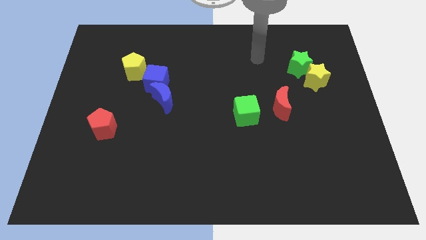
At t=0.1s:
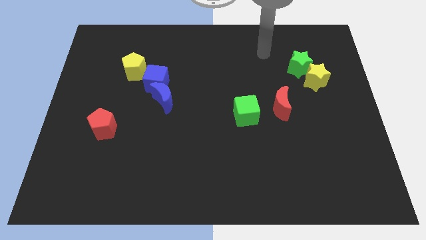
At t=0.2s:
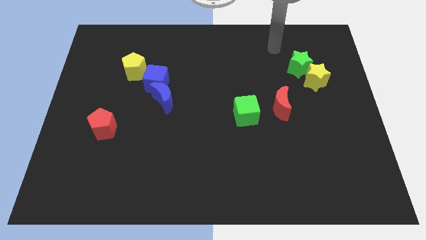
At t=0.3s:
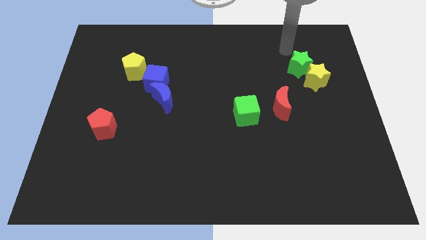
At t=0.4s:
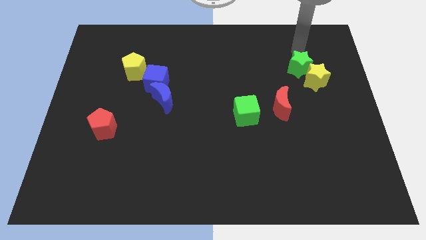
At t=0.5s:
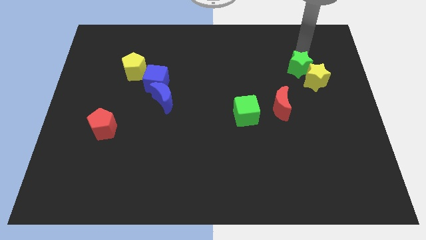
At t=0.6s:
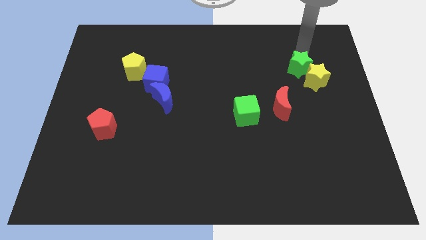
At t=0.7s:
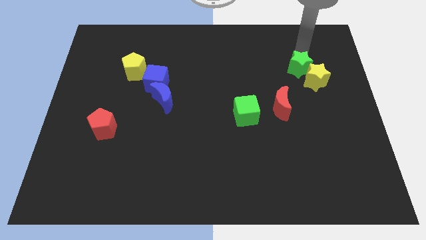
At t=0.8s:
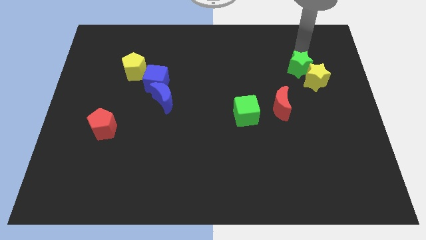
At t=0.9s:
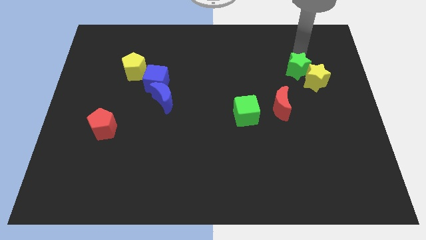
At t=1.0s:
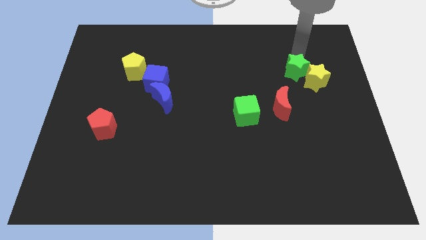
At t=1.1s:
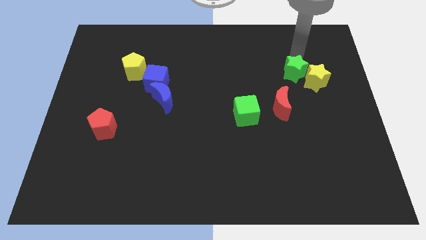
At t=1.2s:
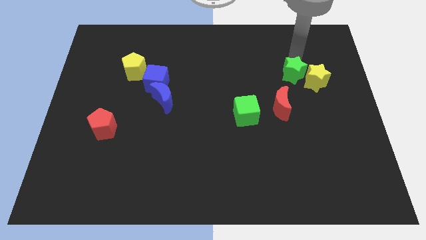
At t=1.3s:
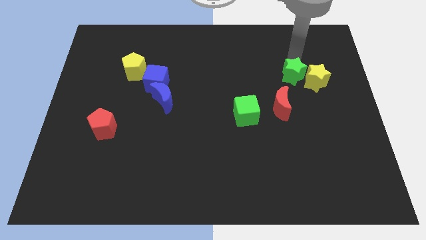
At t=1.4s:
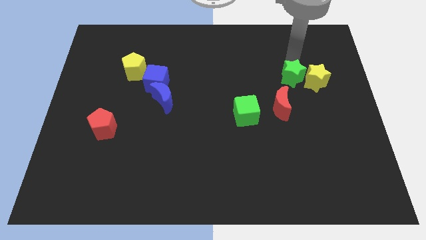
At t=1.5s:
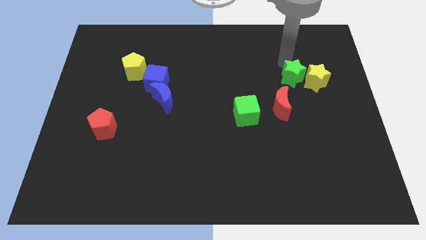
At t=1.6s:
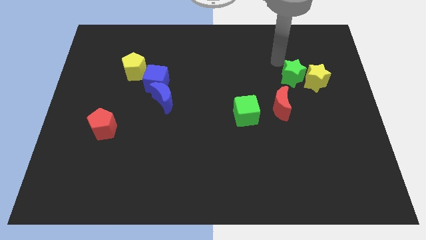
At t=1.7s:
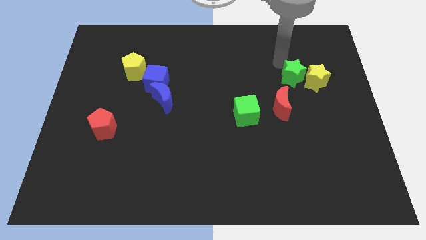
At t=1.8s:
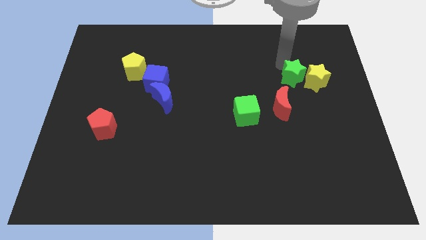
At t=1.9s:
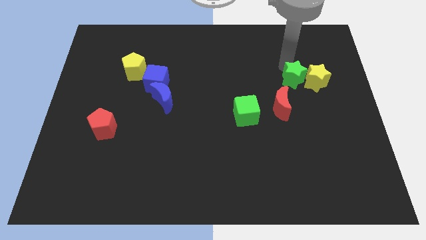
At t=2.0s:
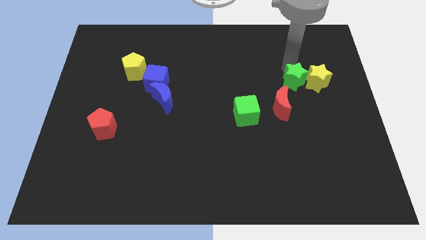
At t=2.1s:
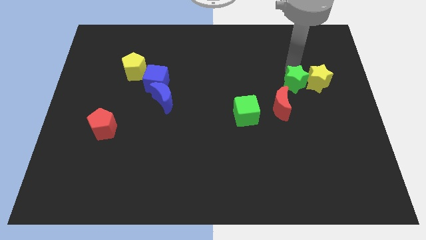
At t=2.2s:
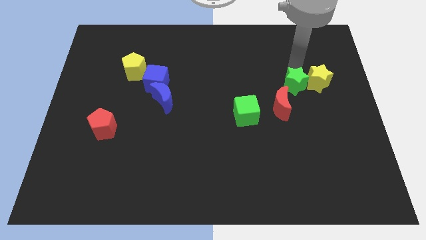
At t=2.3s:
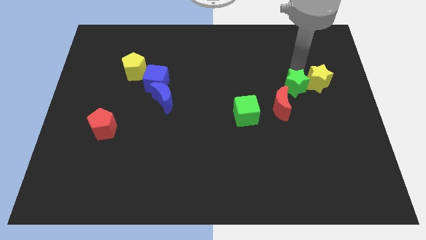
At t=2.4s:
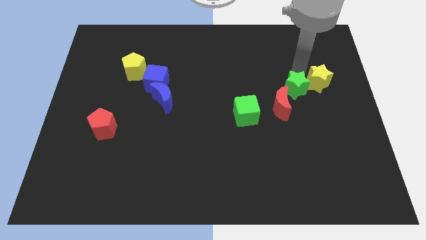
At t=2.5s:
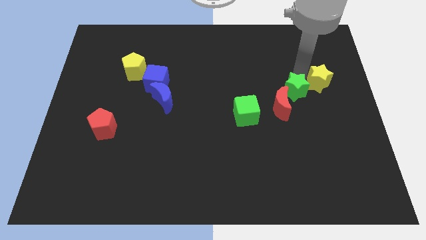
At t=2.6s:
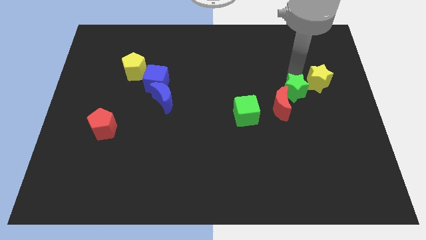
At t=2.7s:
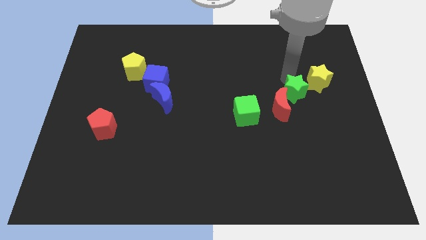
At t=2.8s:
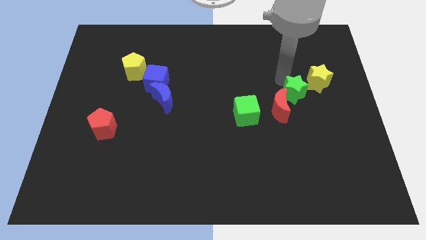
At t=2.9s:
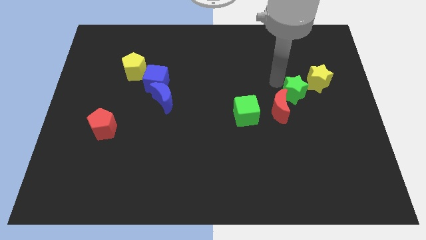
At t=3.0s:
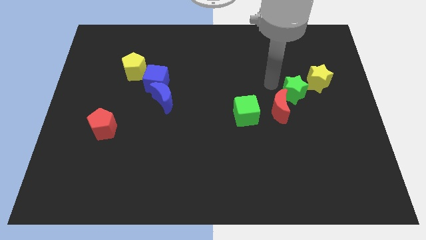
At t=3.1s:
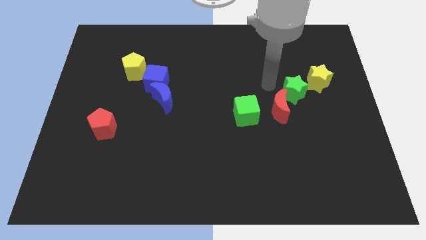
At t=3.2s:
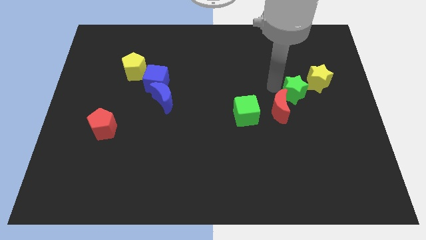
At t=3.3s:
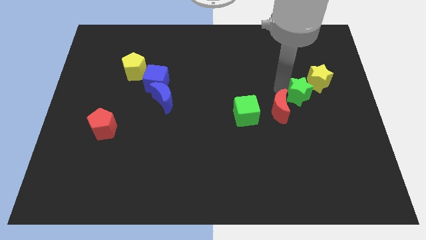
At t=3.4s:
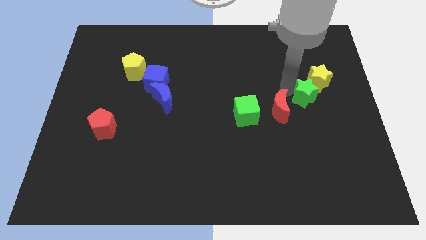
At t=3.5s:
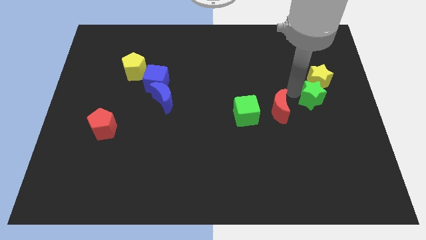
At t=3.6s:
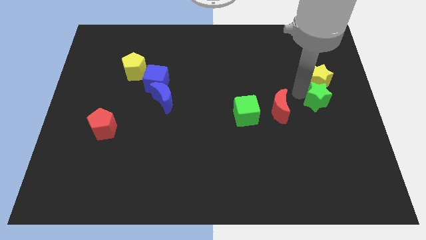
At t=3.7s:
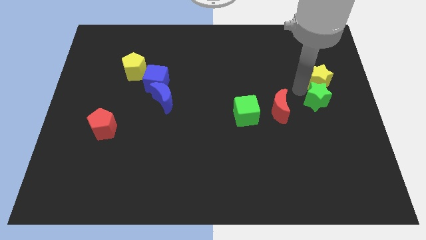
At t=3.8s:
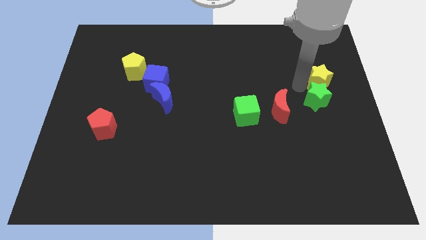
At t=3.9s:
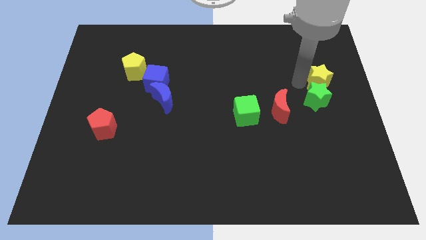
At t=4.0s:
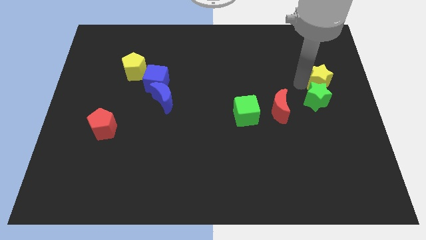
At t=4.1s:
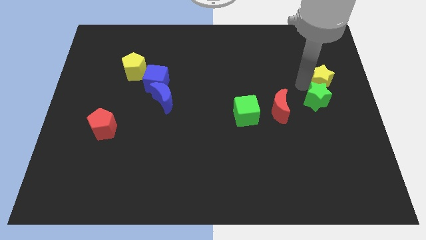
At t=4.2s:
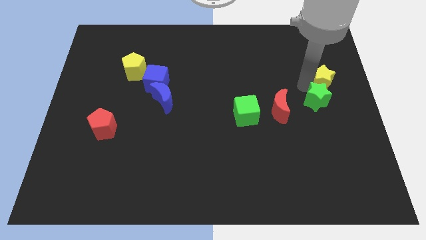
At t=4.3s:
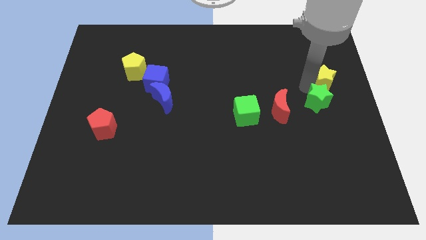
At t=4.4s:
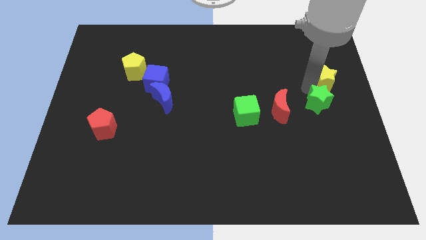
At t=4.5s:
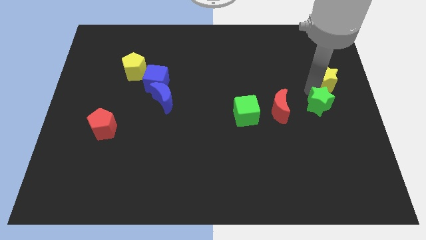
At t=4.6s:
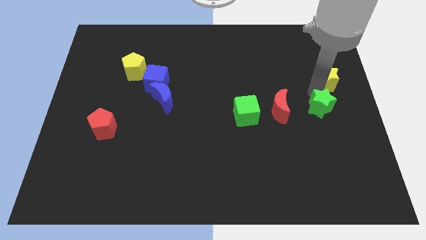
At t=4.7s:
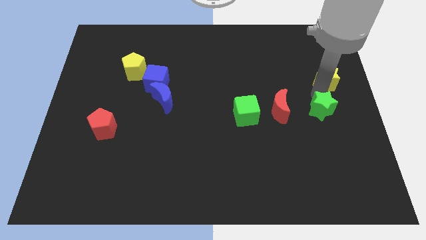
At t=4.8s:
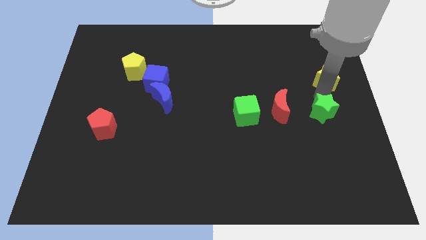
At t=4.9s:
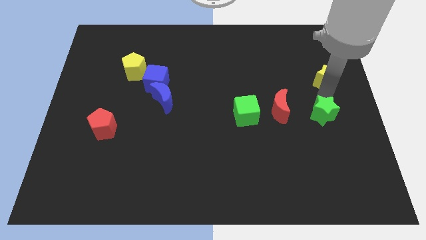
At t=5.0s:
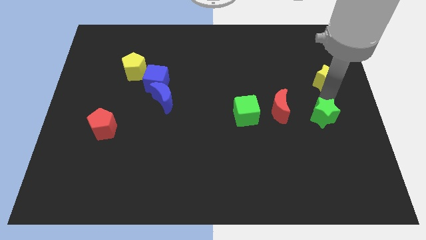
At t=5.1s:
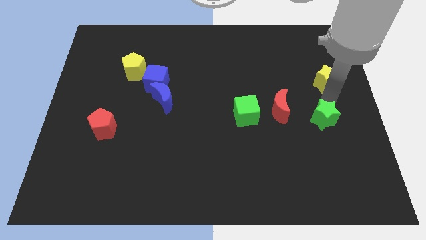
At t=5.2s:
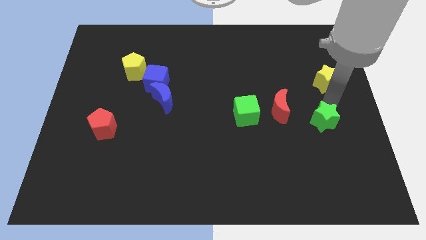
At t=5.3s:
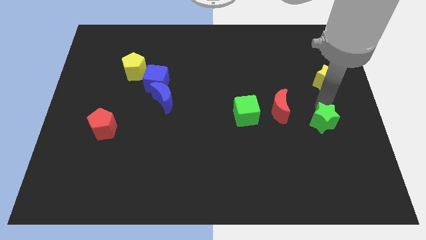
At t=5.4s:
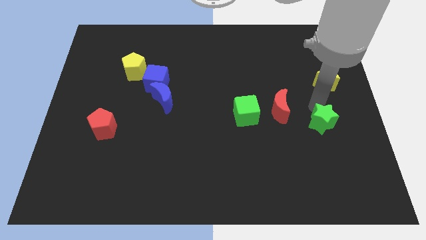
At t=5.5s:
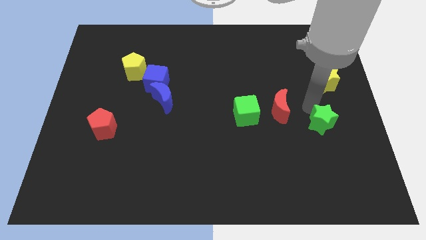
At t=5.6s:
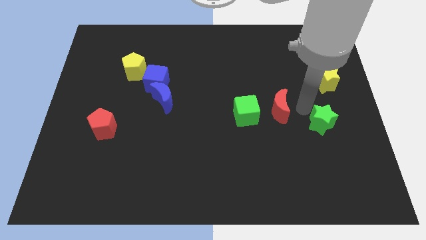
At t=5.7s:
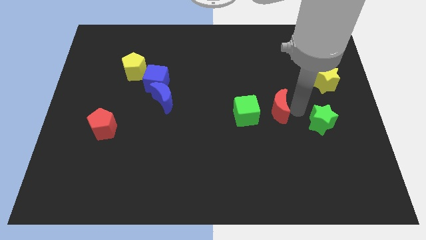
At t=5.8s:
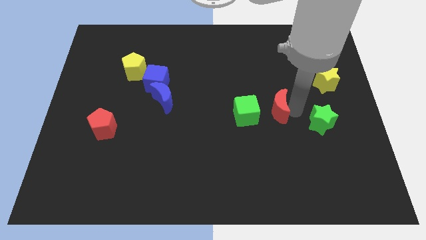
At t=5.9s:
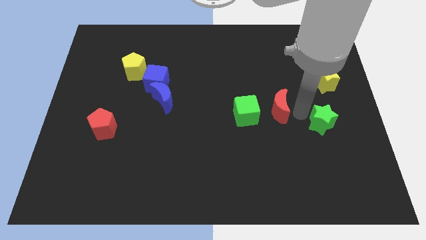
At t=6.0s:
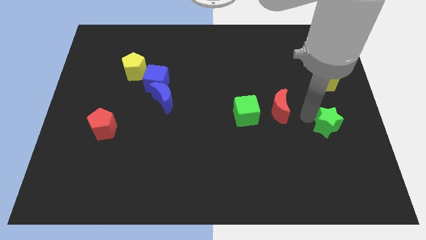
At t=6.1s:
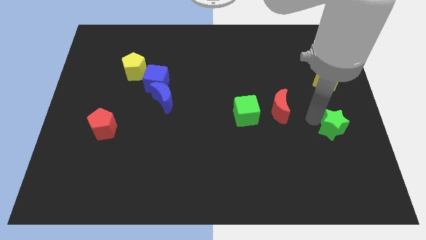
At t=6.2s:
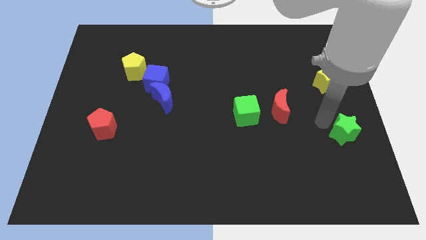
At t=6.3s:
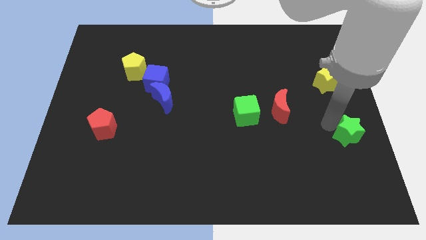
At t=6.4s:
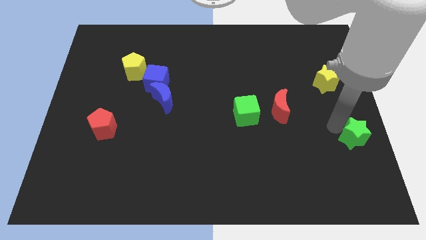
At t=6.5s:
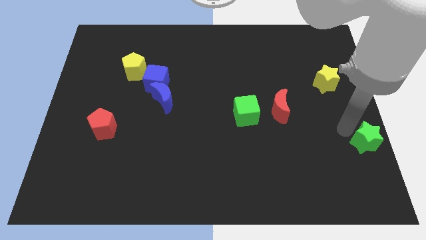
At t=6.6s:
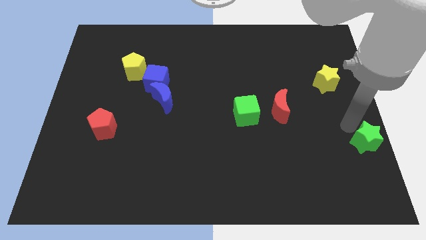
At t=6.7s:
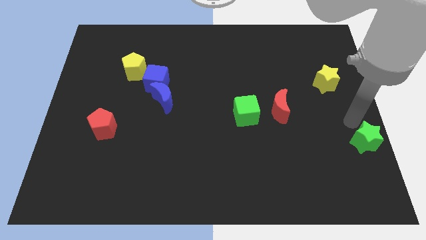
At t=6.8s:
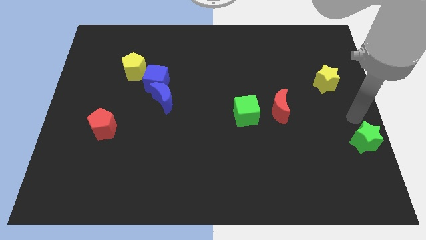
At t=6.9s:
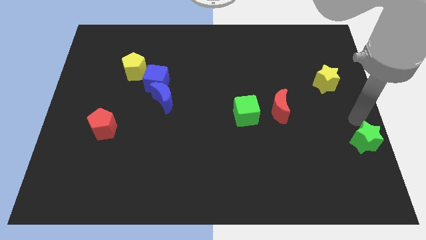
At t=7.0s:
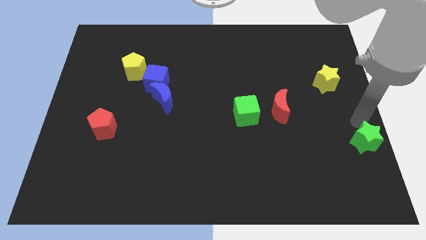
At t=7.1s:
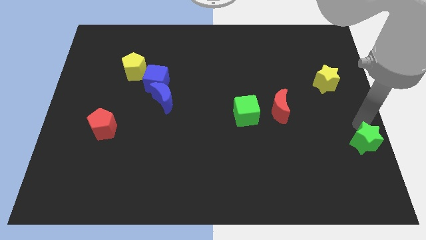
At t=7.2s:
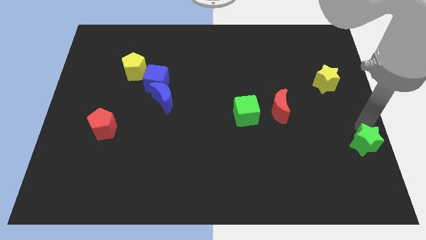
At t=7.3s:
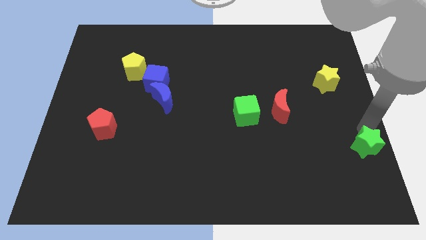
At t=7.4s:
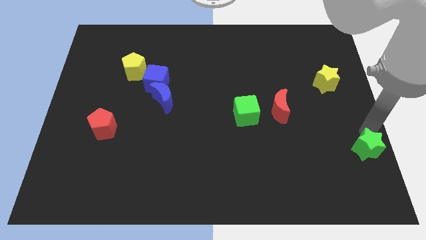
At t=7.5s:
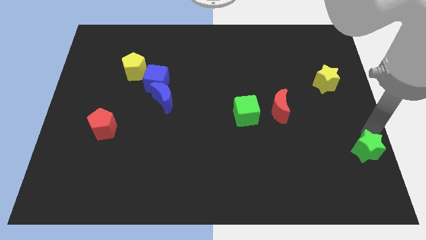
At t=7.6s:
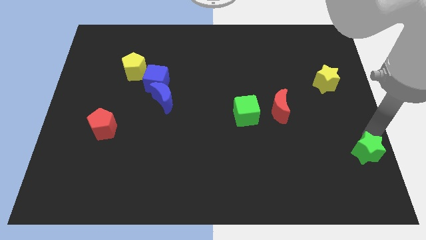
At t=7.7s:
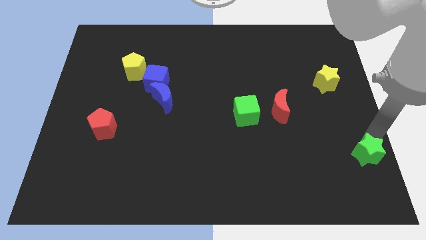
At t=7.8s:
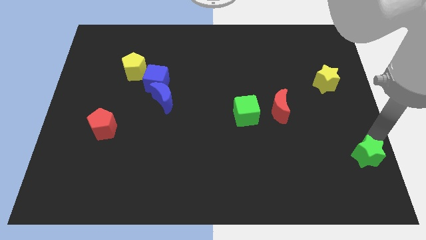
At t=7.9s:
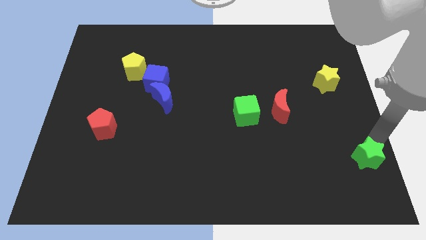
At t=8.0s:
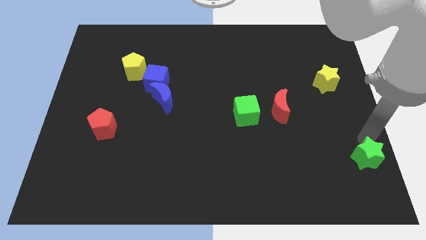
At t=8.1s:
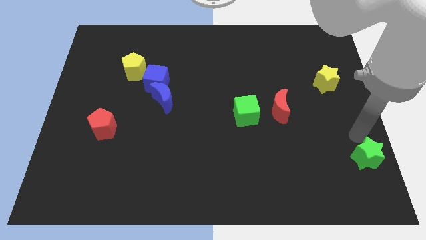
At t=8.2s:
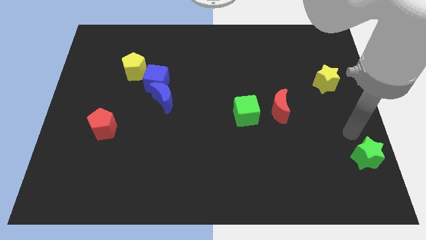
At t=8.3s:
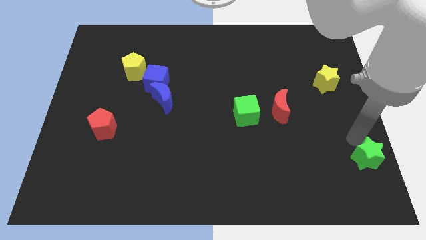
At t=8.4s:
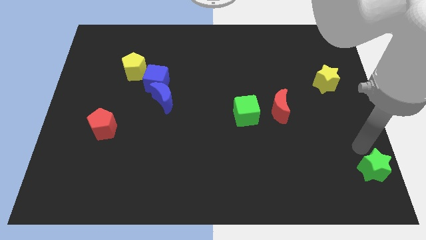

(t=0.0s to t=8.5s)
put the green star to the lower right corner
